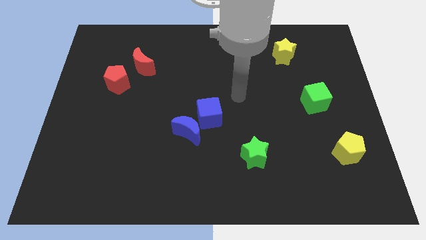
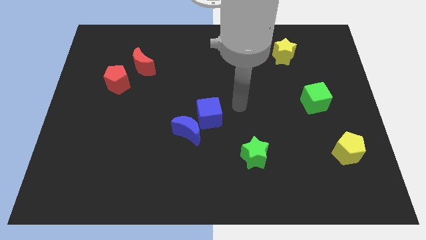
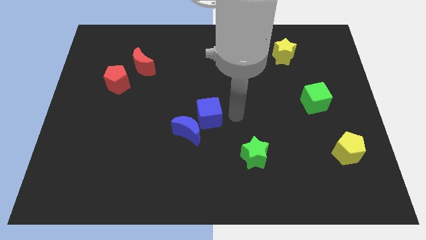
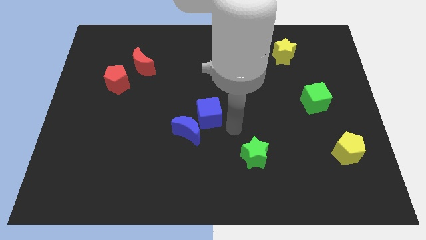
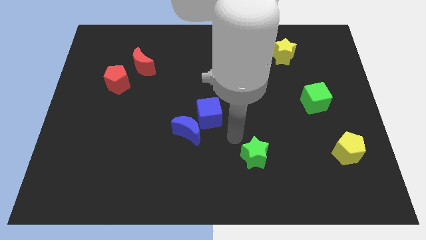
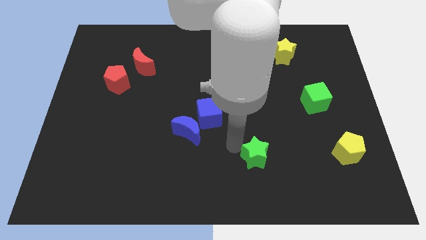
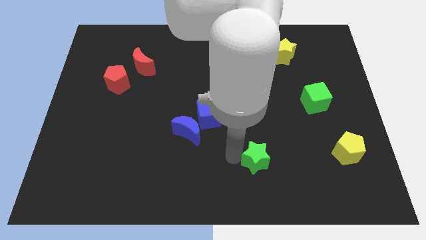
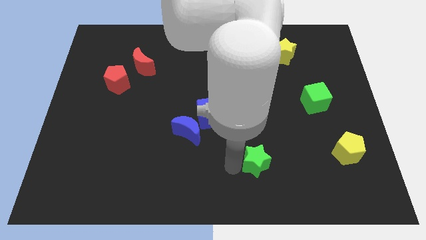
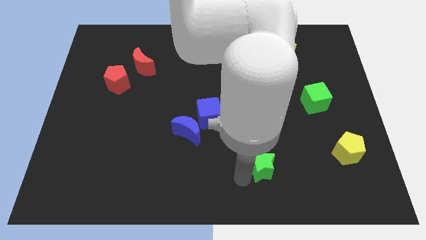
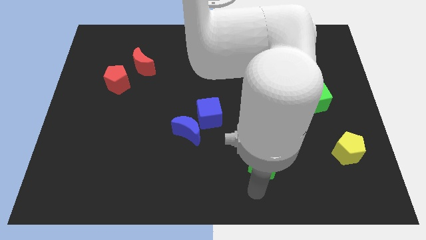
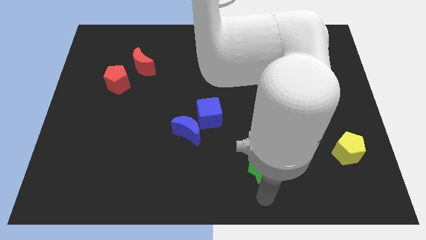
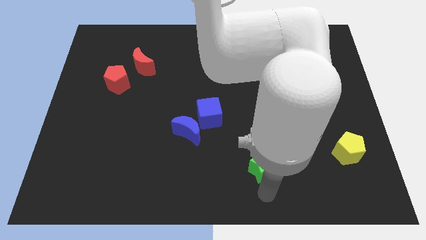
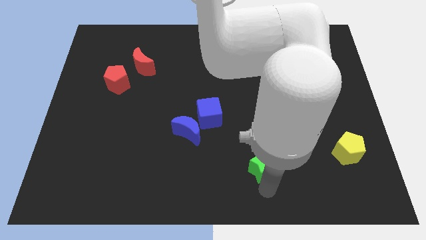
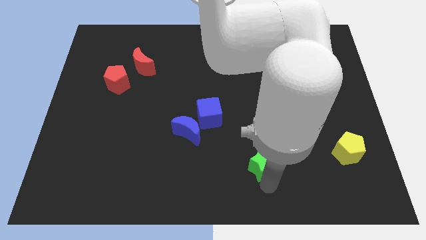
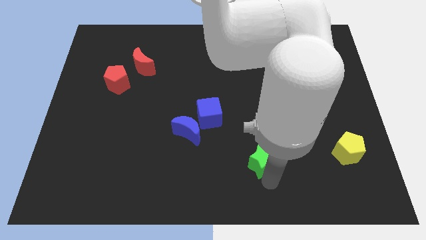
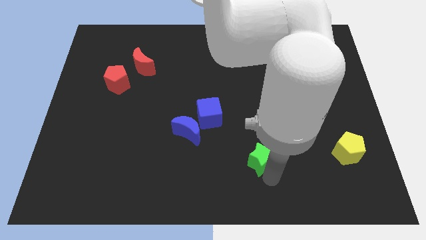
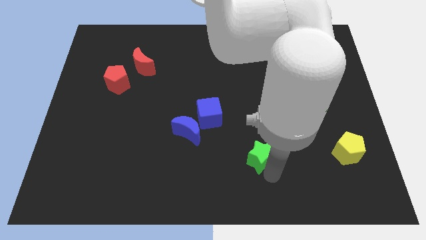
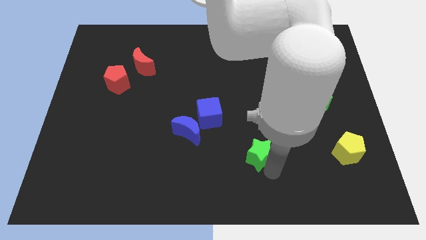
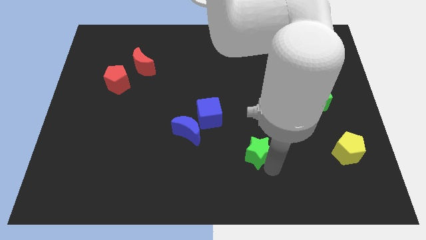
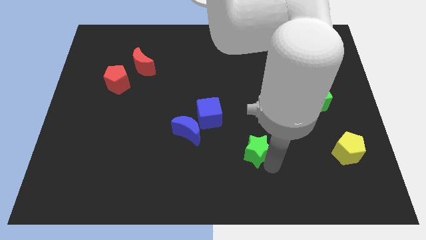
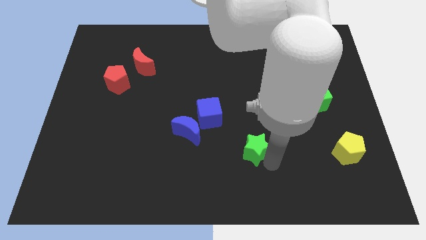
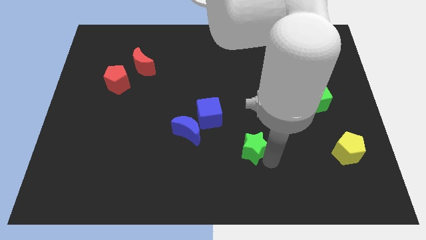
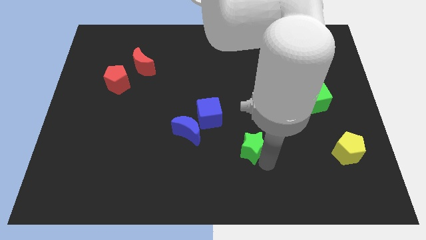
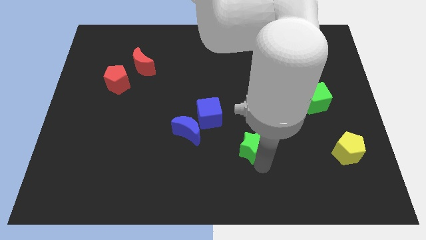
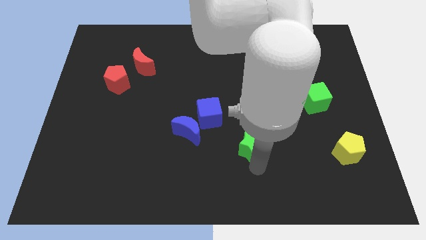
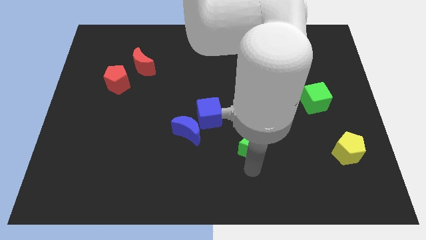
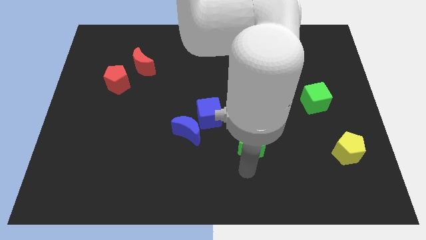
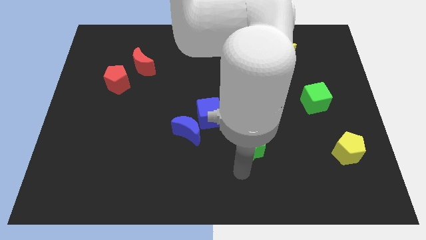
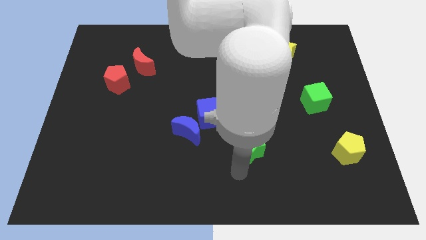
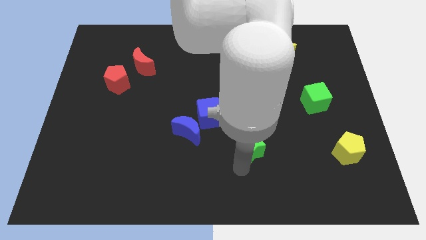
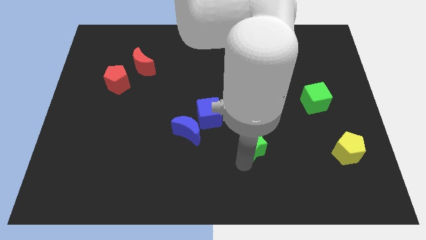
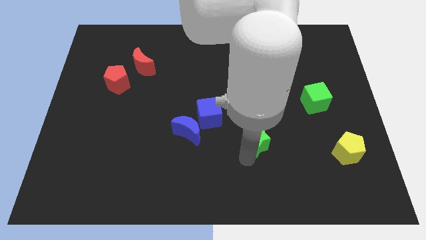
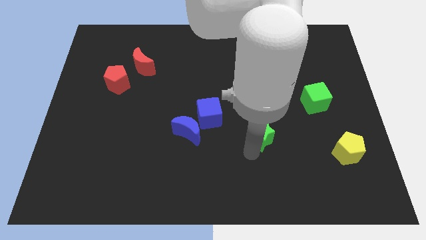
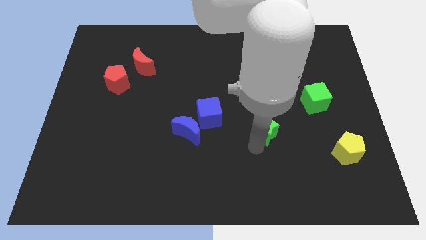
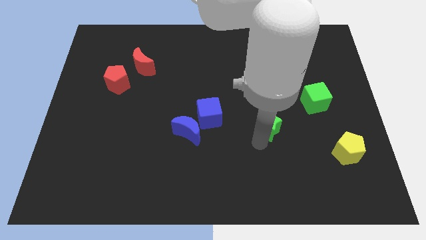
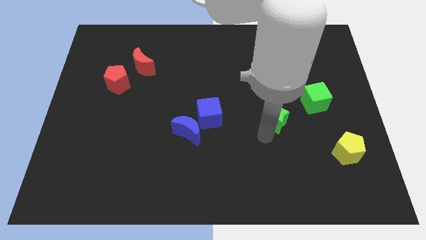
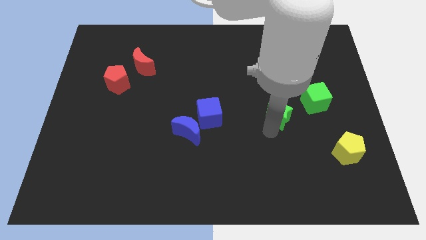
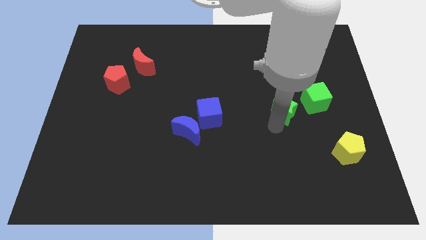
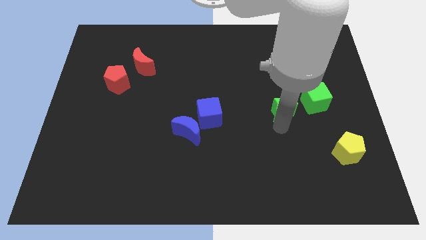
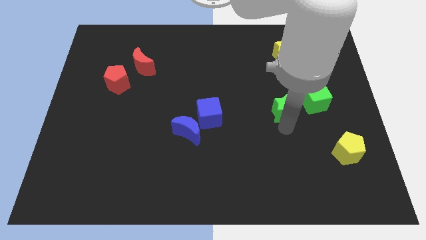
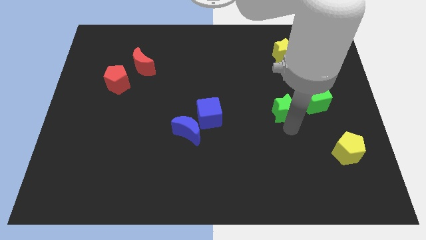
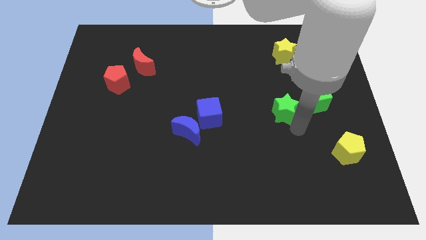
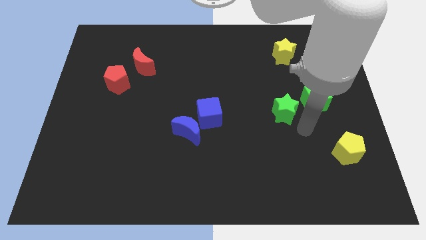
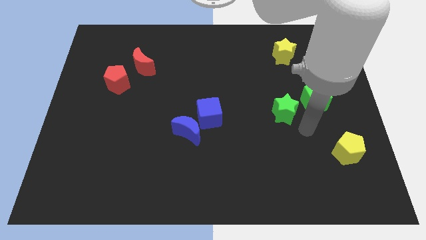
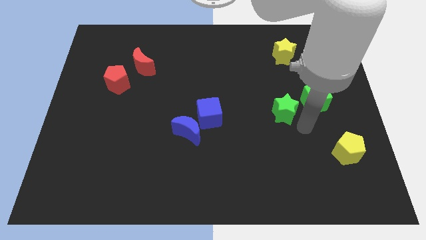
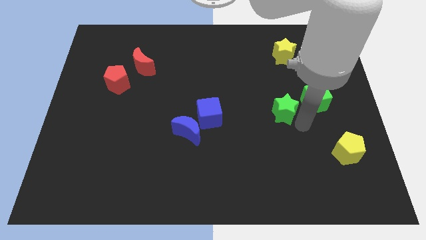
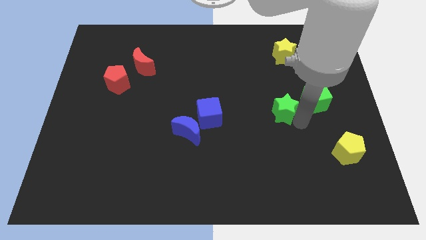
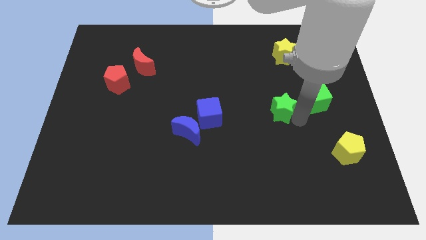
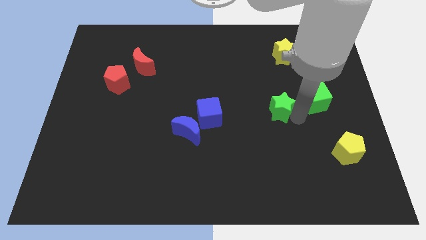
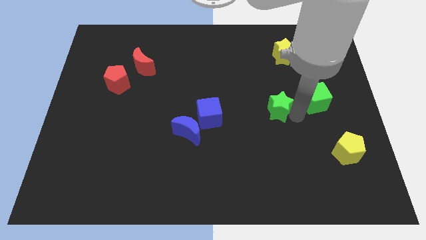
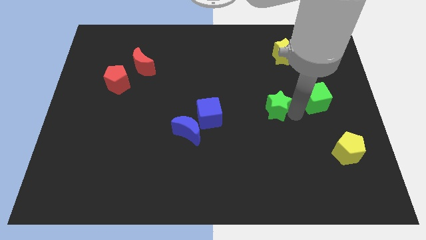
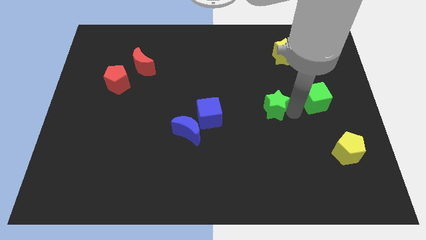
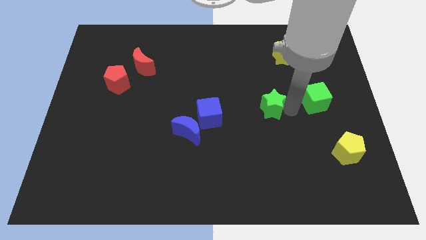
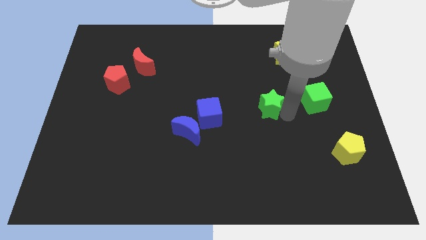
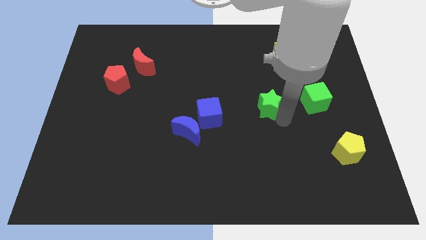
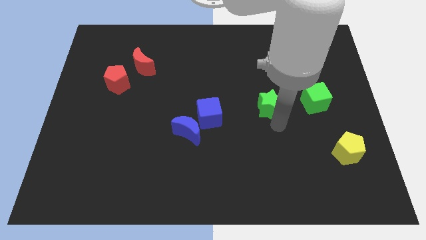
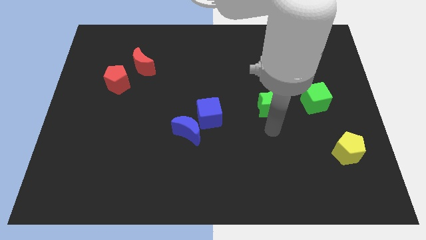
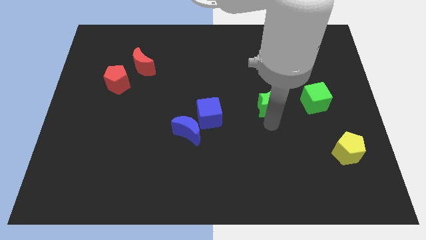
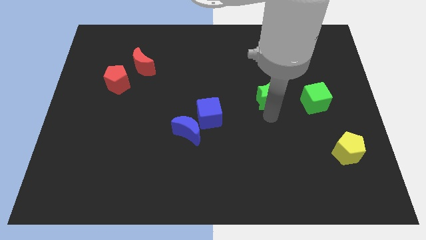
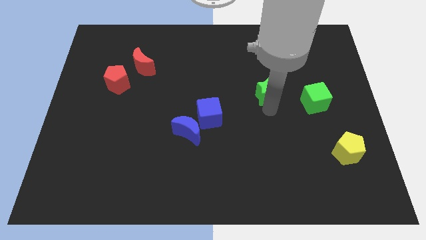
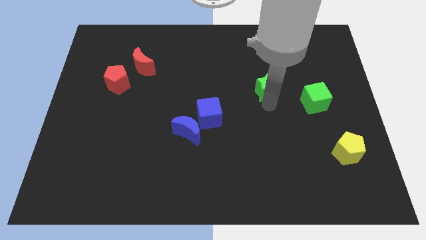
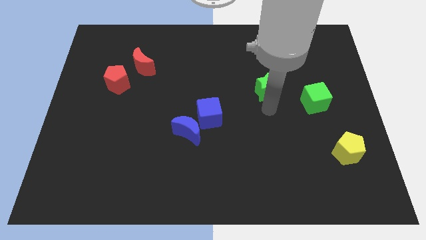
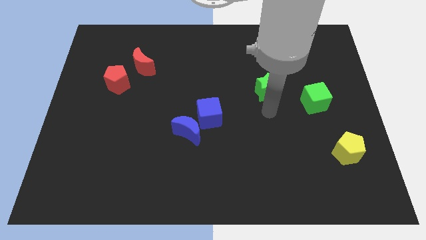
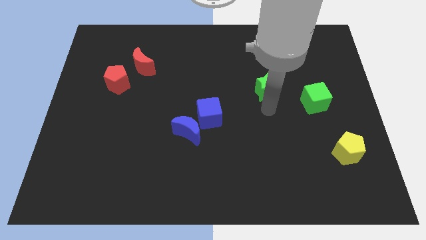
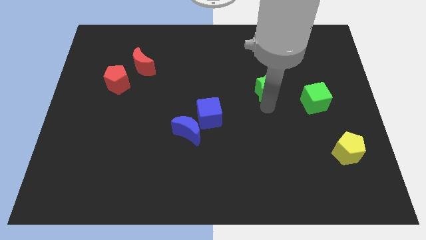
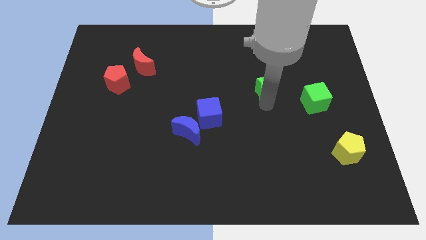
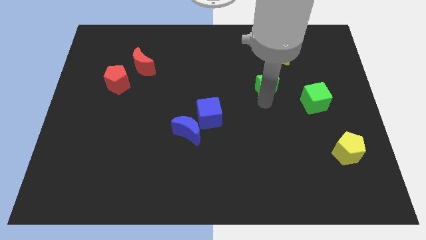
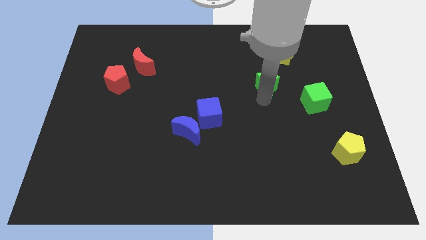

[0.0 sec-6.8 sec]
put the green star diagonally down and to the left of the yellow star
